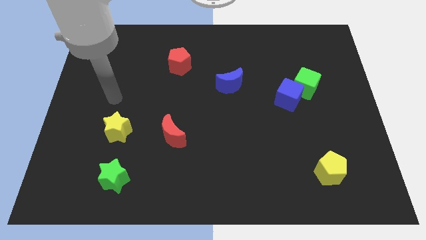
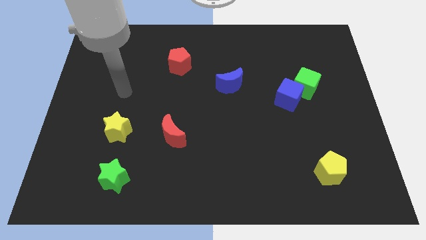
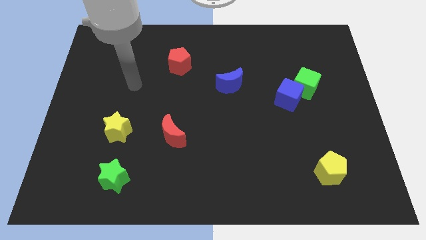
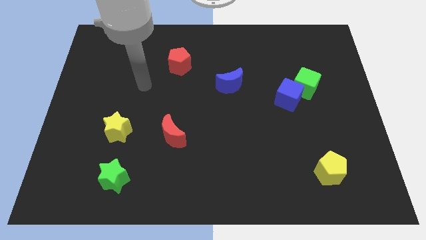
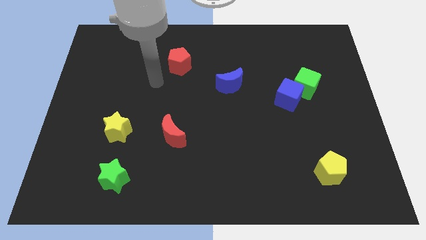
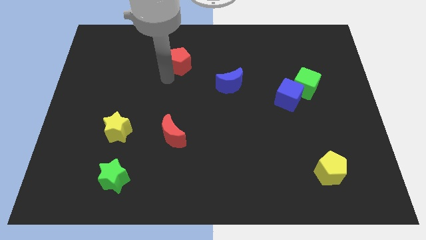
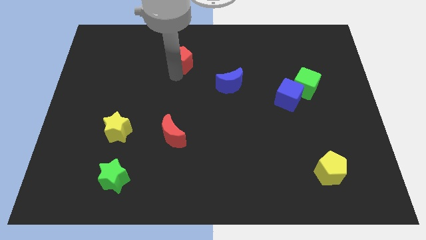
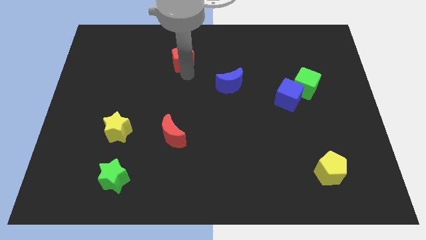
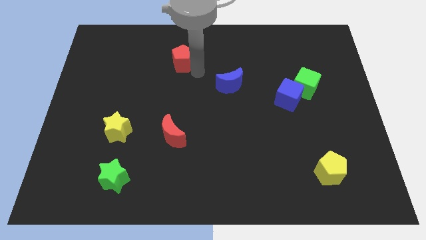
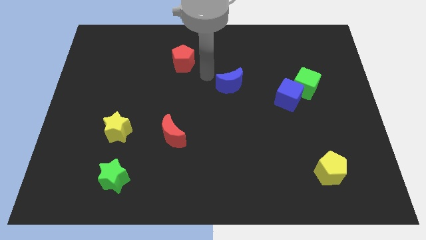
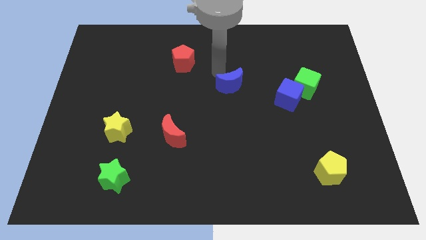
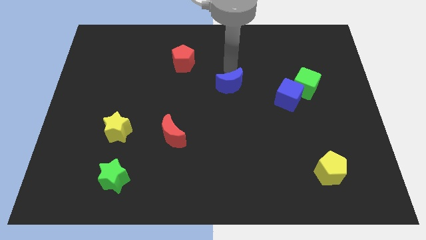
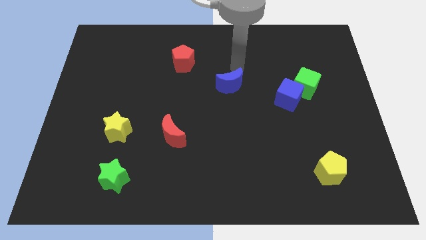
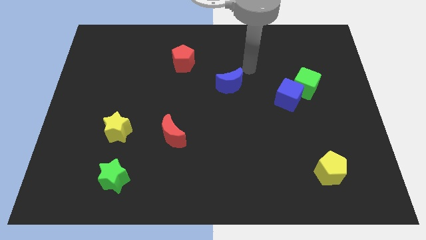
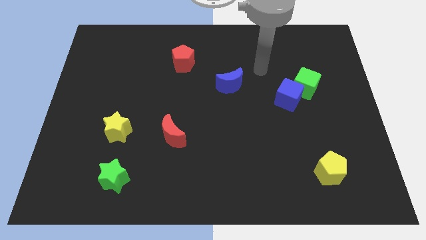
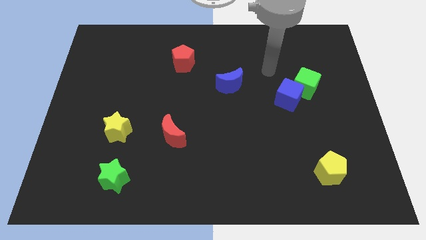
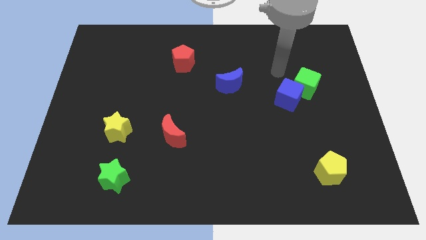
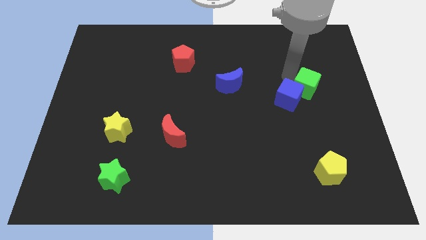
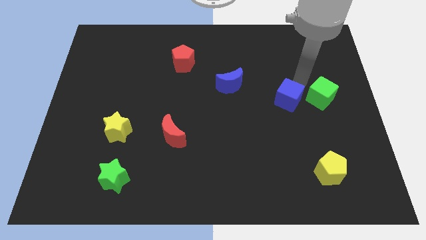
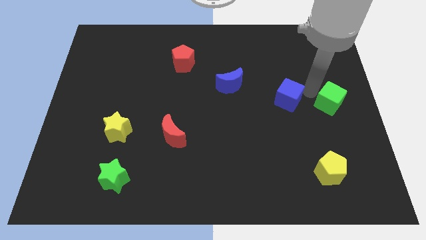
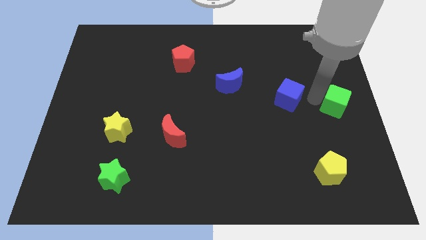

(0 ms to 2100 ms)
separate the blue cube from the green cube

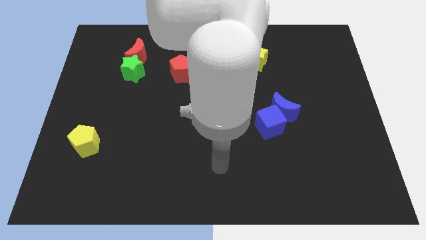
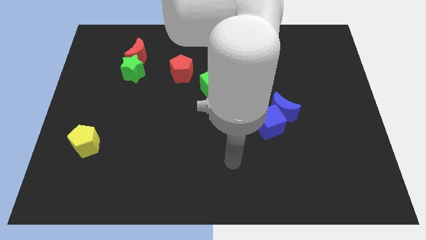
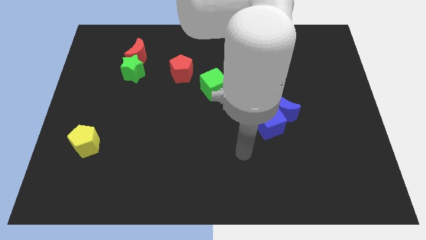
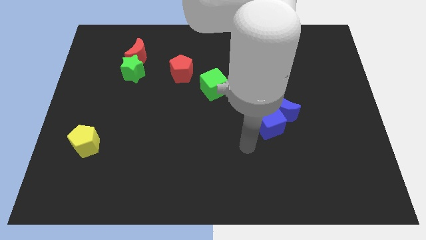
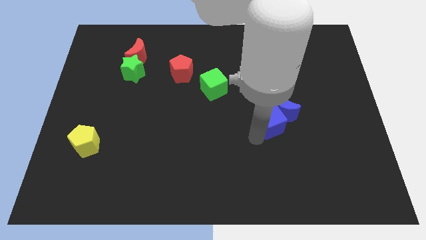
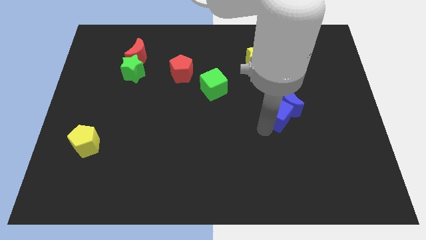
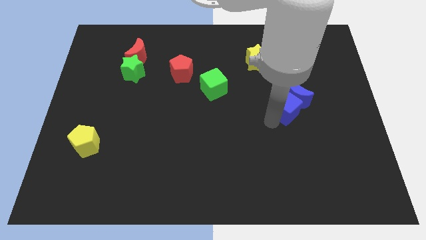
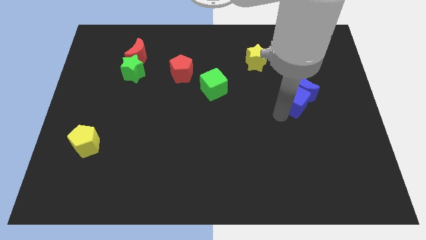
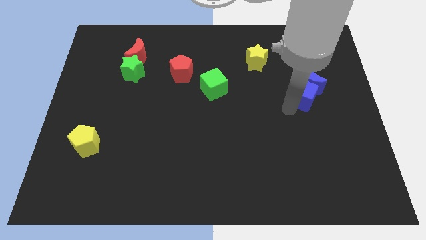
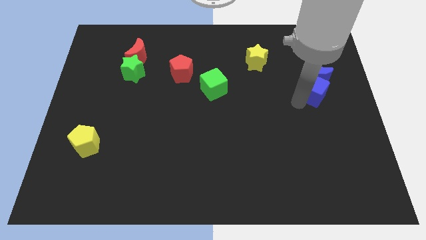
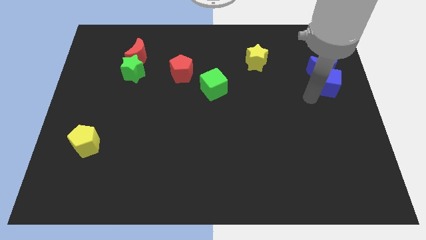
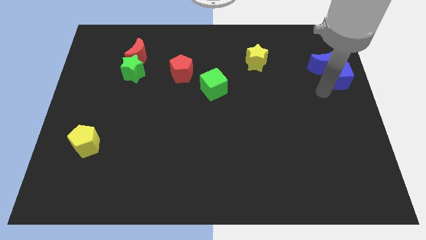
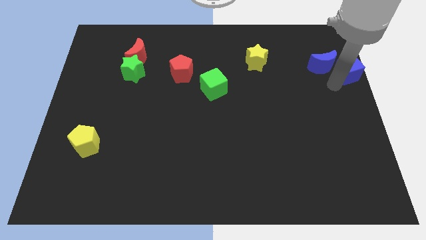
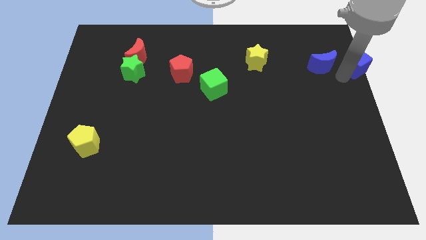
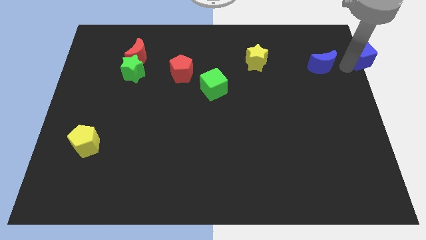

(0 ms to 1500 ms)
separate the blue moon from the blue cube

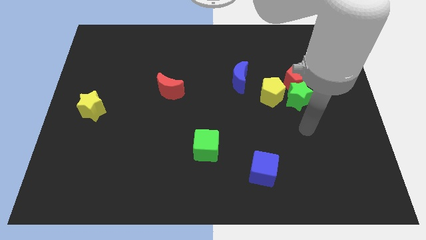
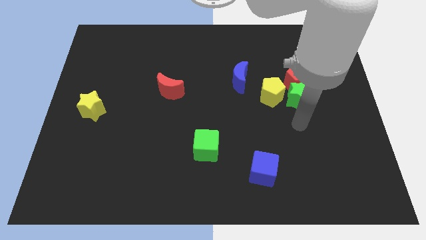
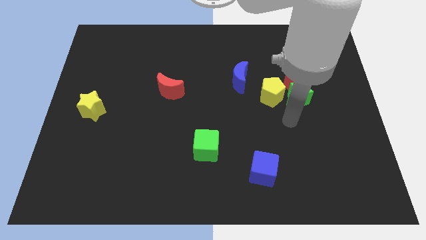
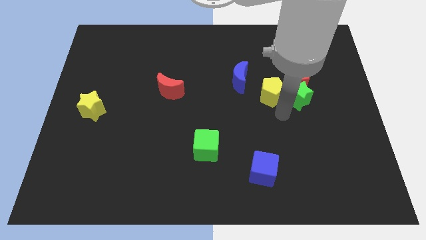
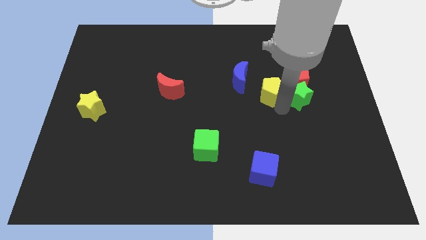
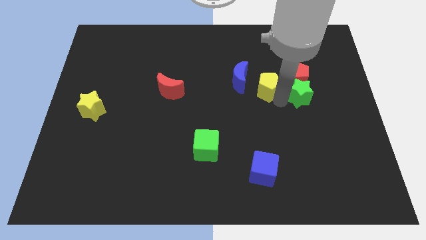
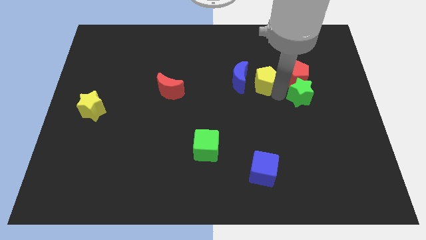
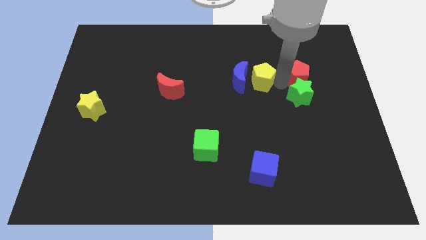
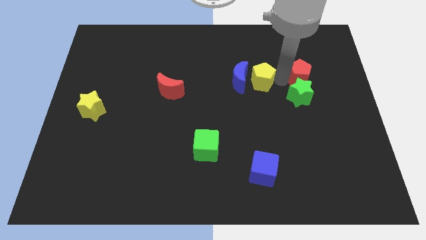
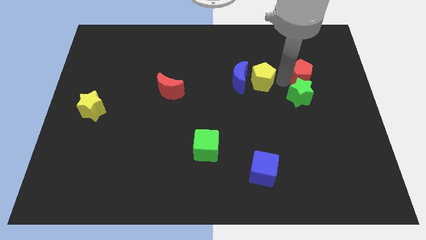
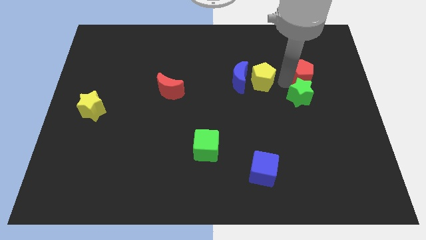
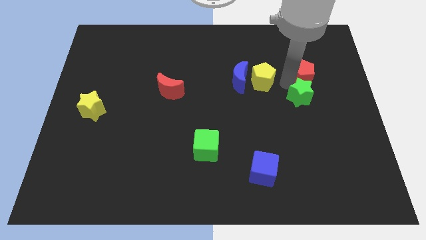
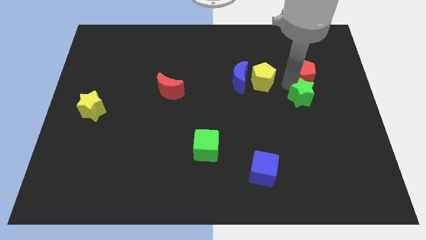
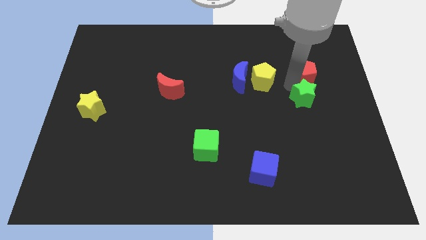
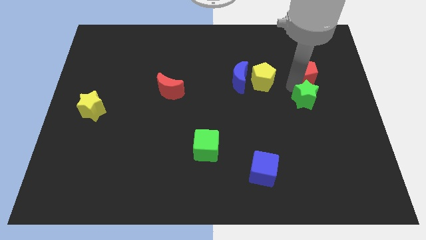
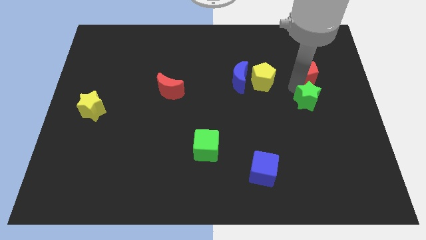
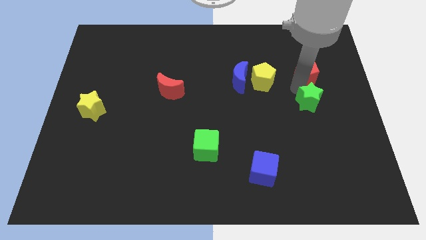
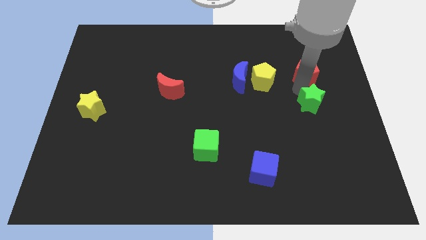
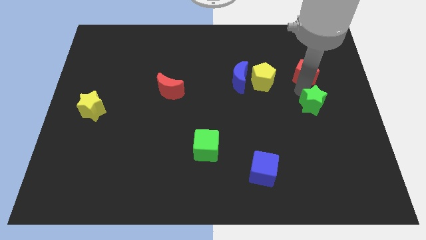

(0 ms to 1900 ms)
pull the green star apart from the red pentagon and yellow pentagon

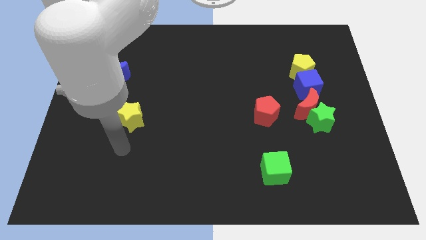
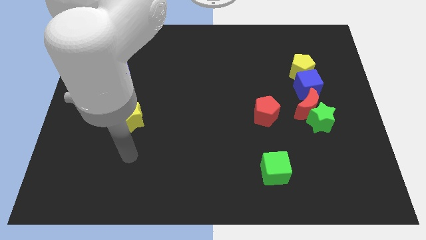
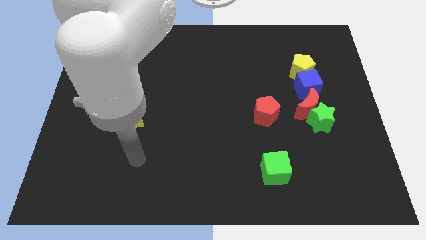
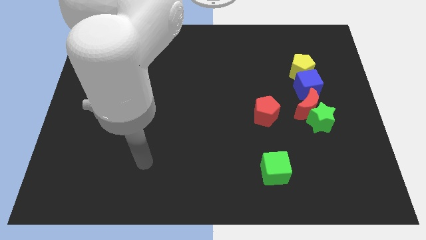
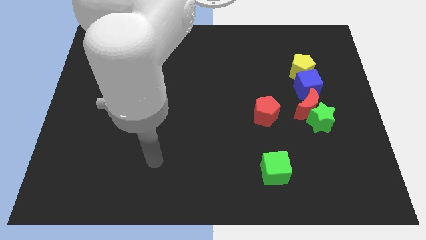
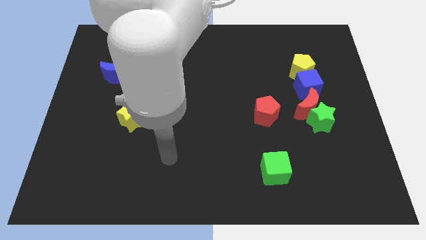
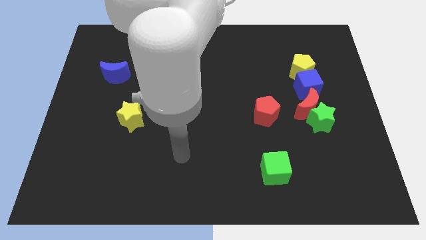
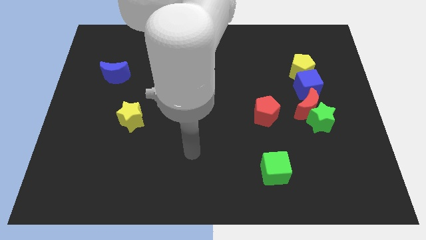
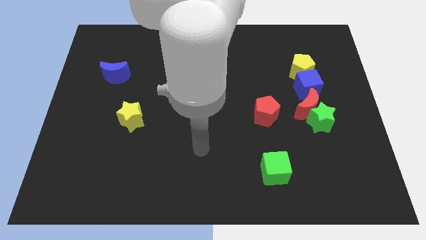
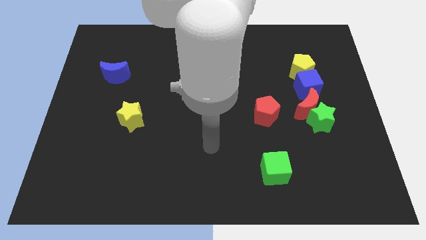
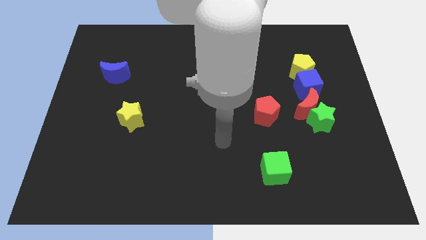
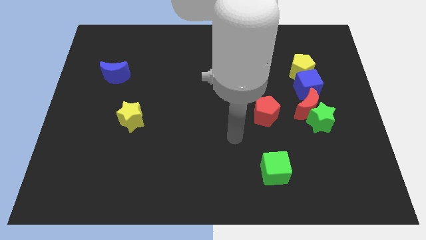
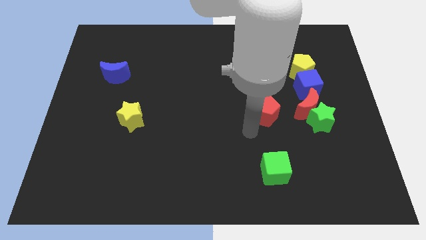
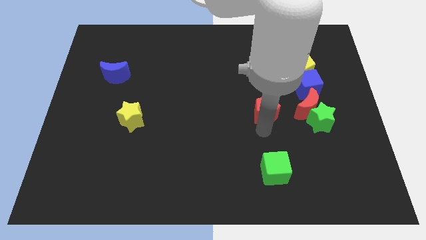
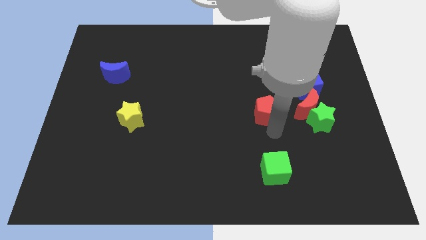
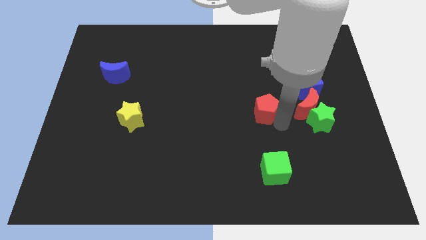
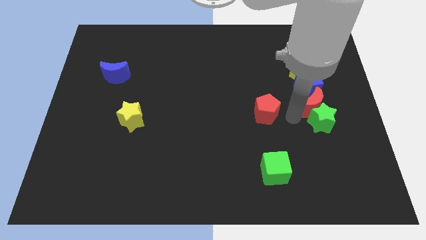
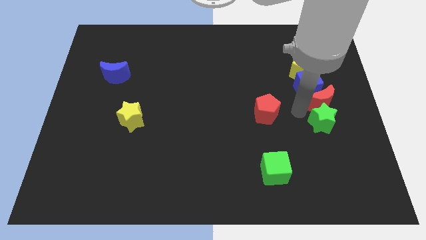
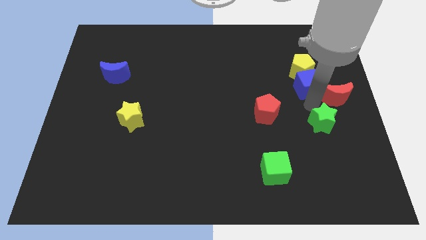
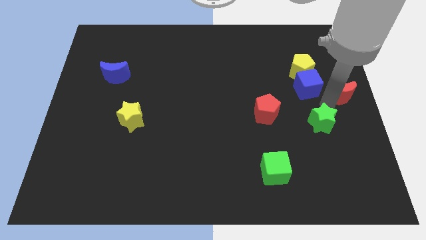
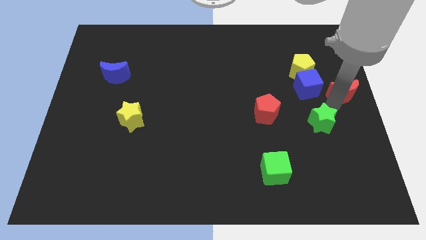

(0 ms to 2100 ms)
move the green star away from the red moon

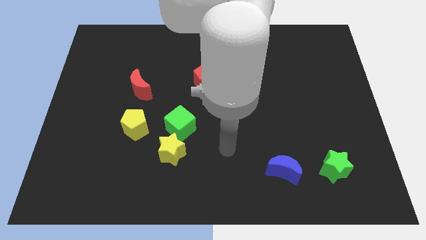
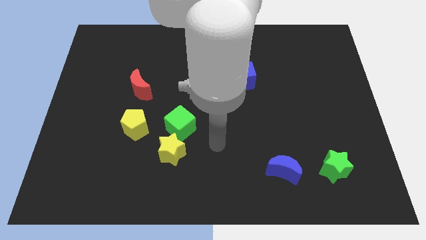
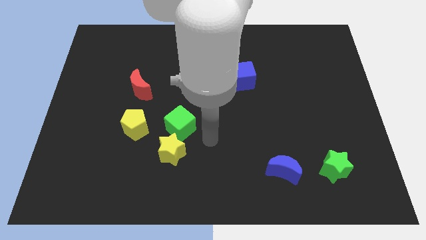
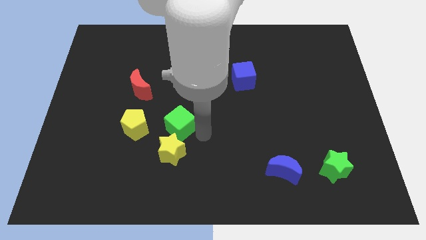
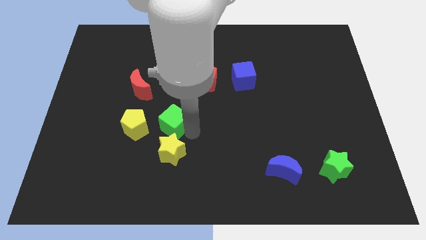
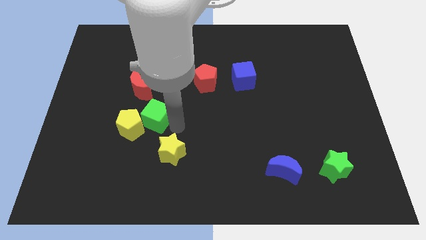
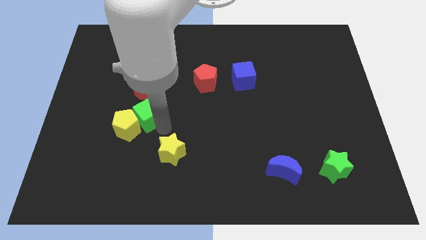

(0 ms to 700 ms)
move the yellow star away from the green cube

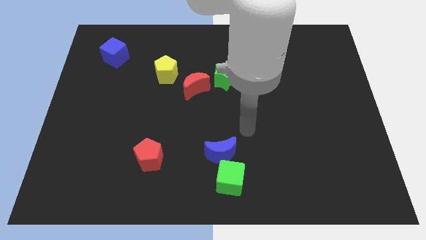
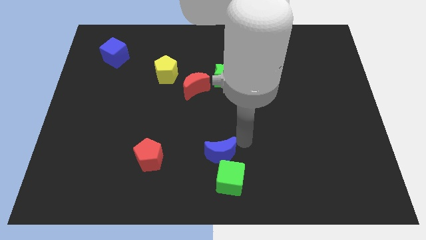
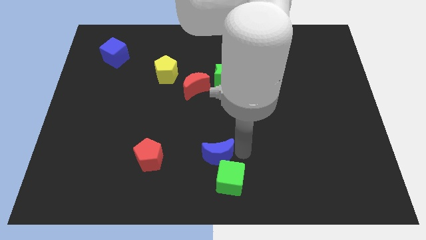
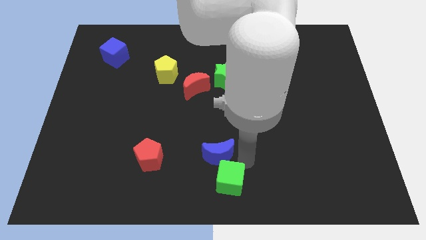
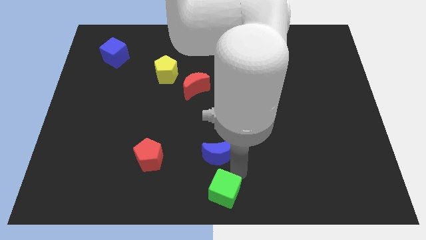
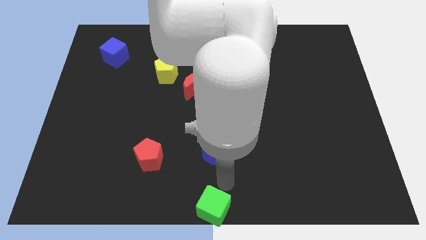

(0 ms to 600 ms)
move the blue moon away from the green cube

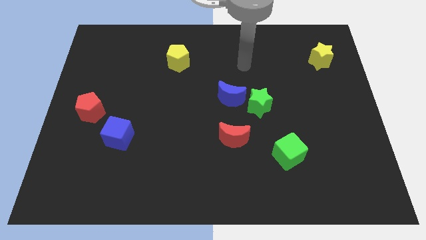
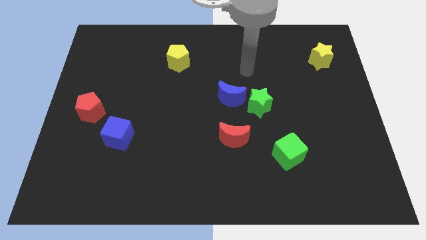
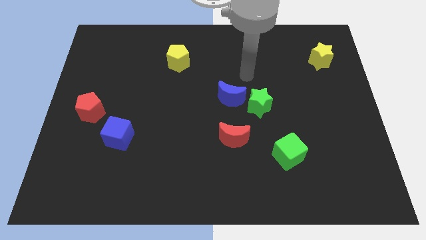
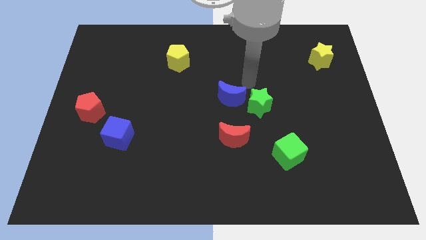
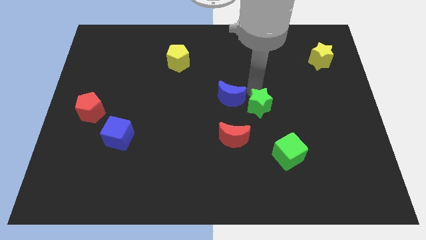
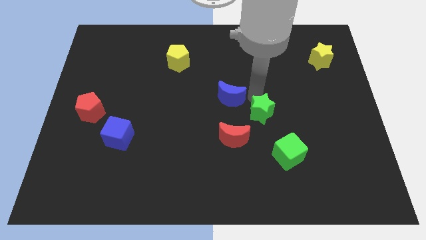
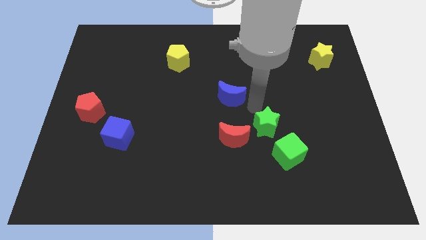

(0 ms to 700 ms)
move the blue moon away from the green star
